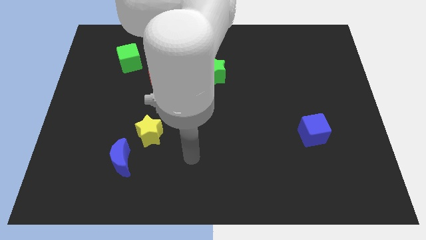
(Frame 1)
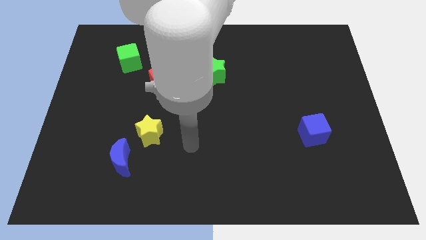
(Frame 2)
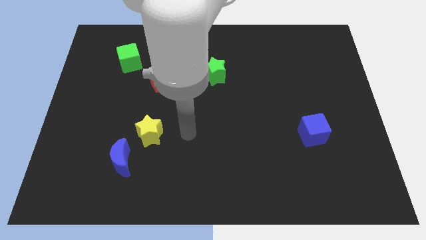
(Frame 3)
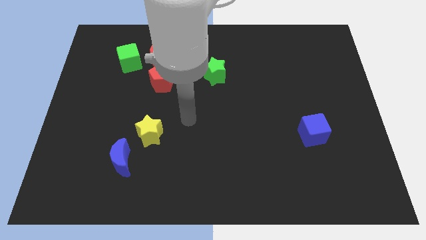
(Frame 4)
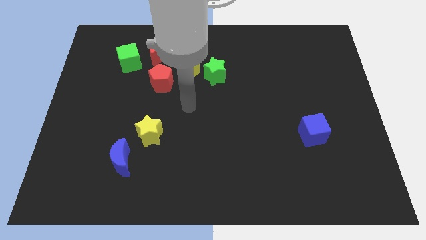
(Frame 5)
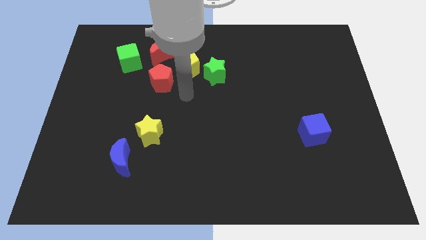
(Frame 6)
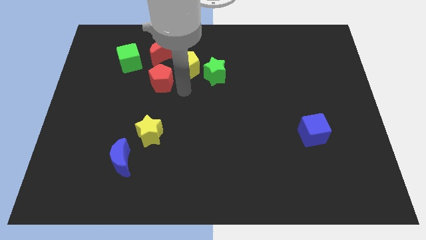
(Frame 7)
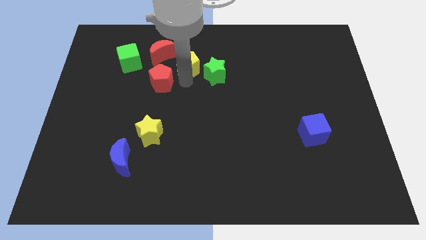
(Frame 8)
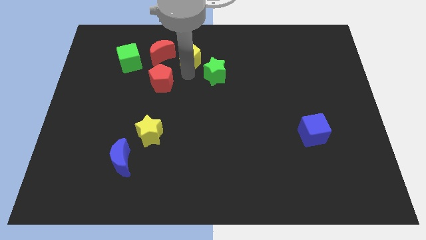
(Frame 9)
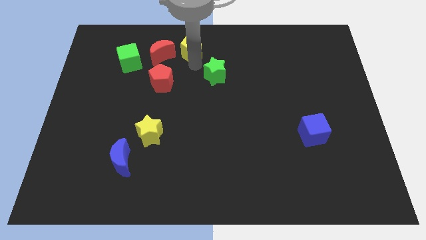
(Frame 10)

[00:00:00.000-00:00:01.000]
pull the green star apart from the yellow pentagon

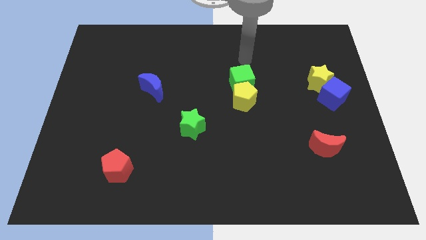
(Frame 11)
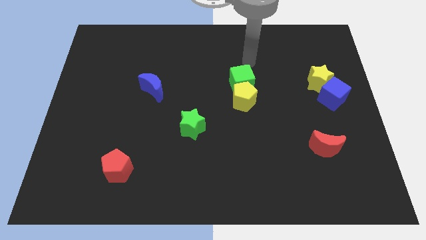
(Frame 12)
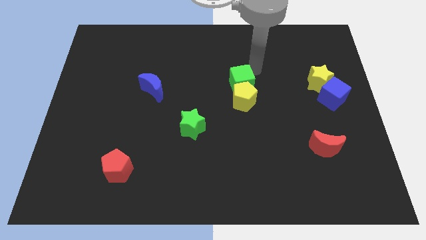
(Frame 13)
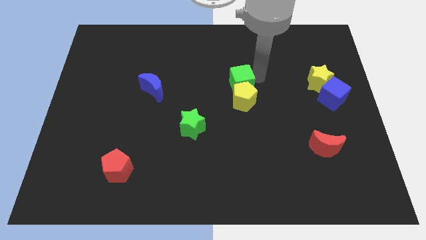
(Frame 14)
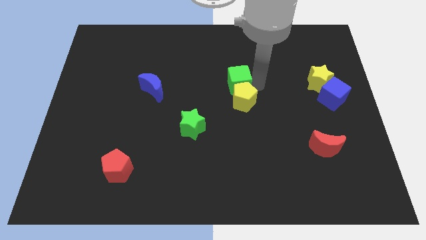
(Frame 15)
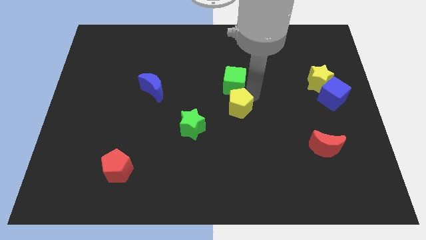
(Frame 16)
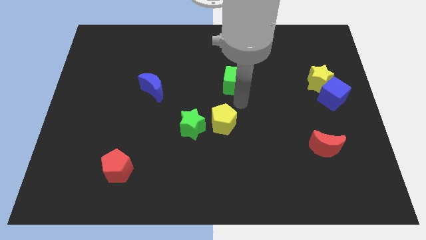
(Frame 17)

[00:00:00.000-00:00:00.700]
move the green cube away from the yellow pentagon

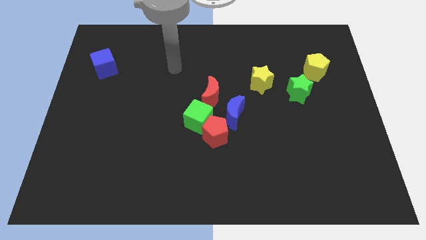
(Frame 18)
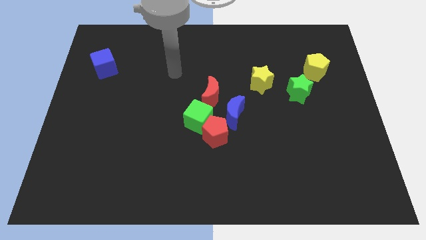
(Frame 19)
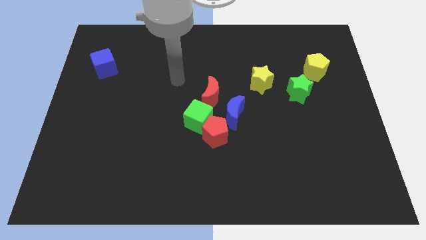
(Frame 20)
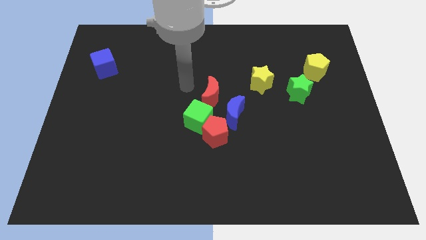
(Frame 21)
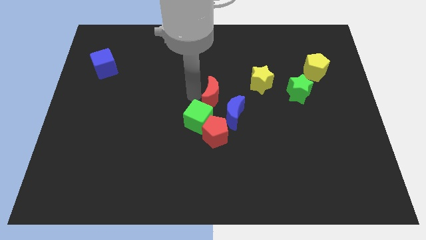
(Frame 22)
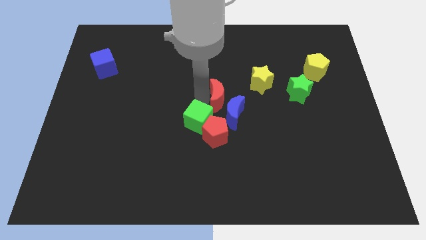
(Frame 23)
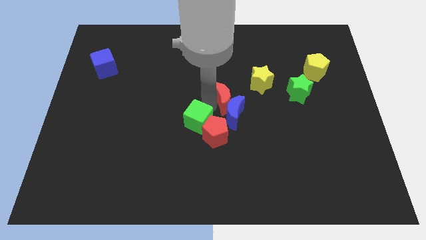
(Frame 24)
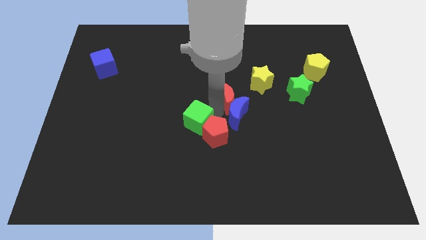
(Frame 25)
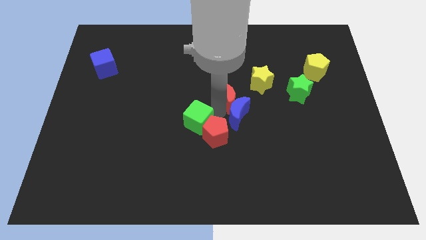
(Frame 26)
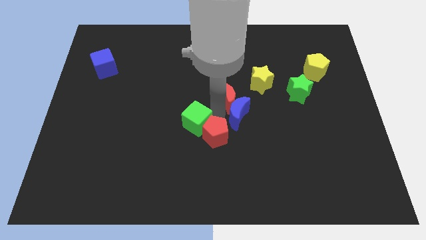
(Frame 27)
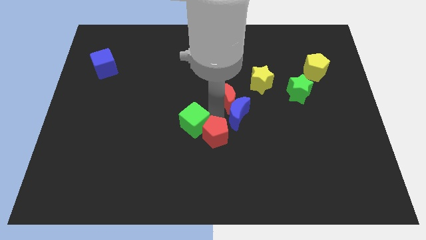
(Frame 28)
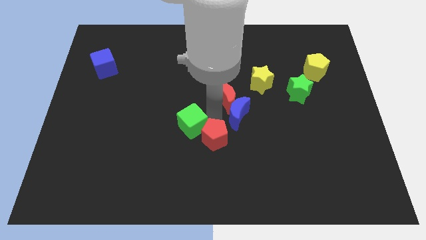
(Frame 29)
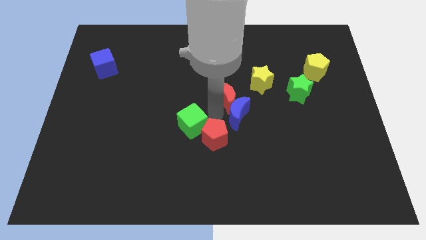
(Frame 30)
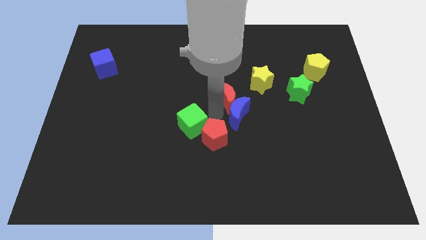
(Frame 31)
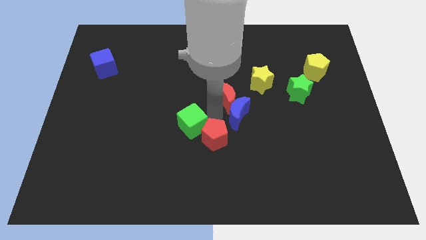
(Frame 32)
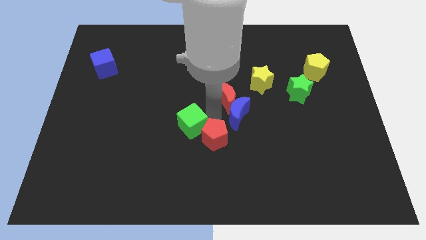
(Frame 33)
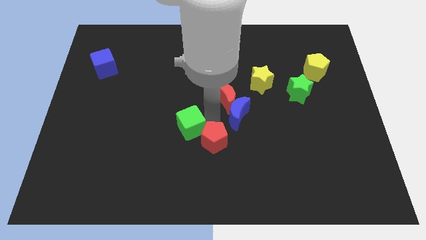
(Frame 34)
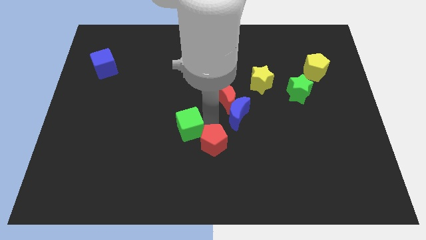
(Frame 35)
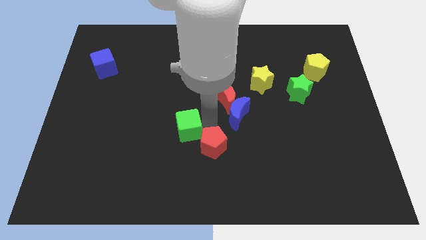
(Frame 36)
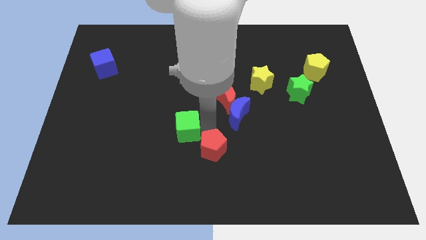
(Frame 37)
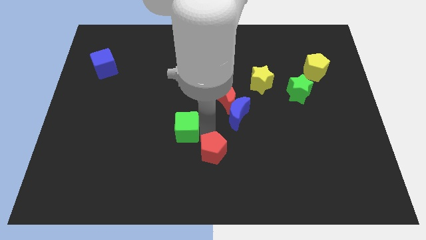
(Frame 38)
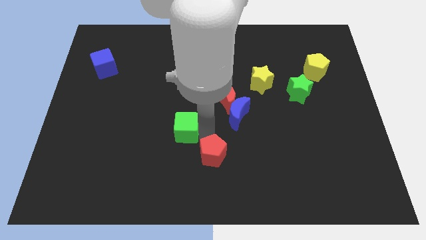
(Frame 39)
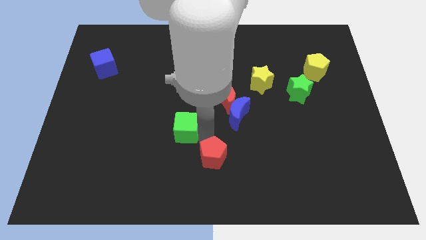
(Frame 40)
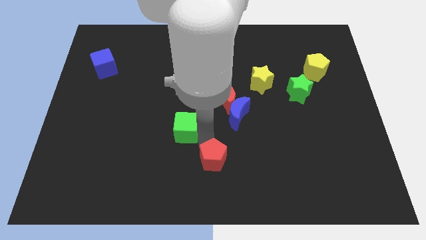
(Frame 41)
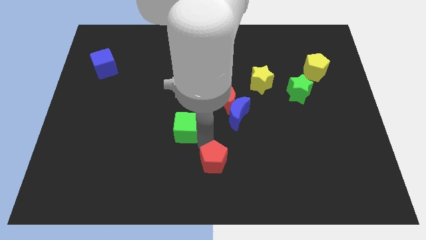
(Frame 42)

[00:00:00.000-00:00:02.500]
separate the red pentagon from the green cube and blue moon

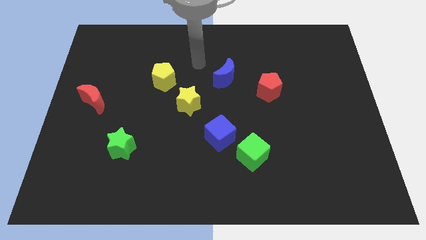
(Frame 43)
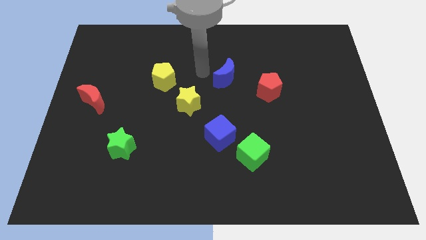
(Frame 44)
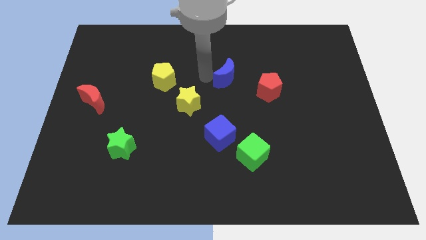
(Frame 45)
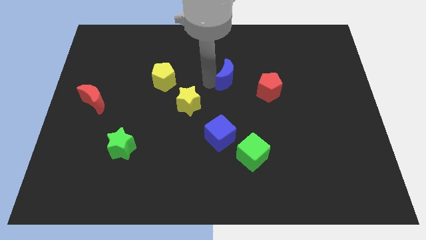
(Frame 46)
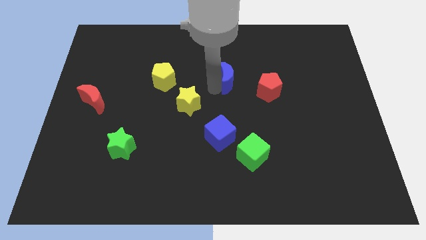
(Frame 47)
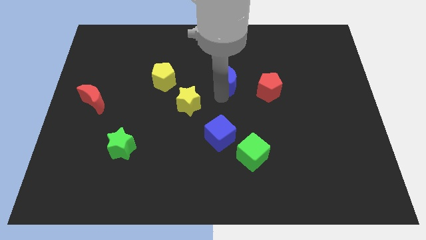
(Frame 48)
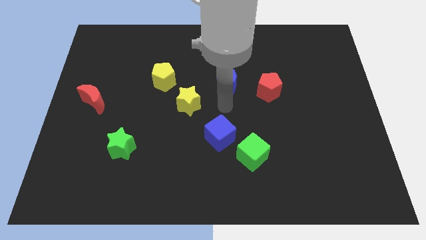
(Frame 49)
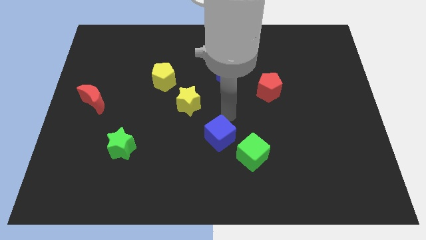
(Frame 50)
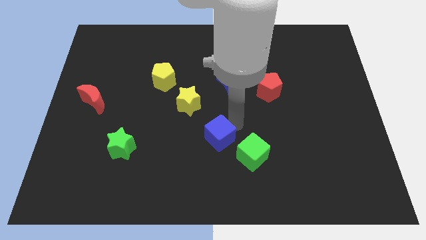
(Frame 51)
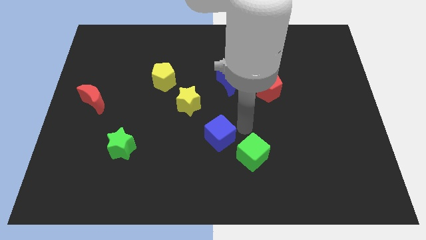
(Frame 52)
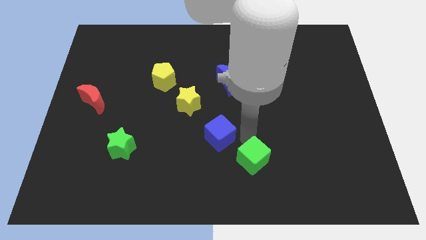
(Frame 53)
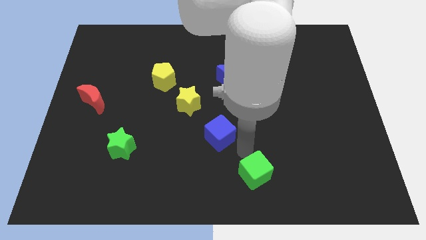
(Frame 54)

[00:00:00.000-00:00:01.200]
move the blue cube away from the green cube

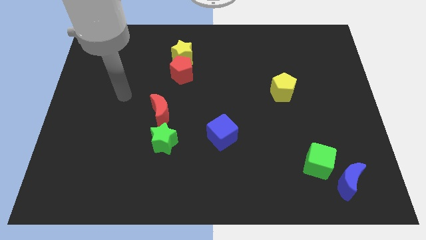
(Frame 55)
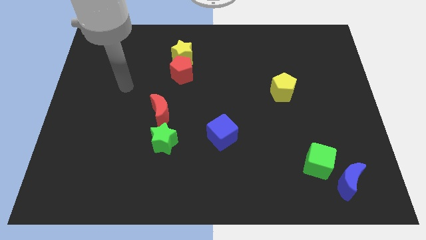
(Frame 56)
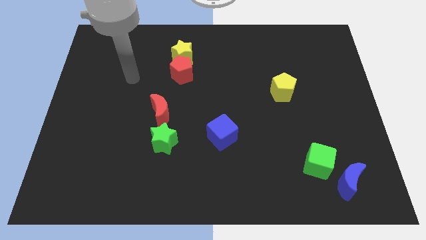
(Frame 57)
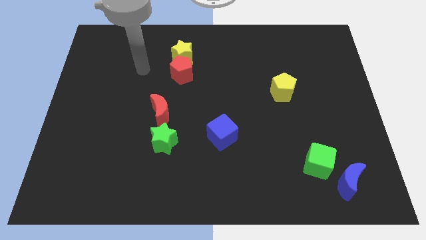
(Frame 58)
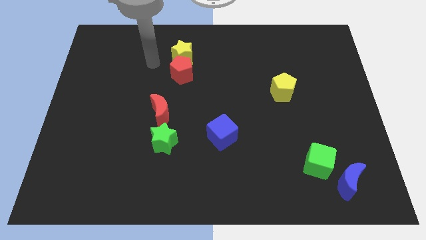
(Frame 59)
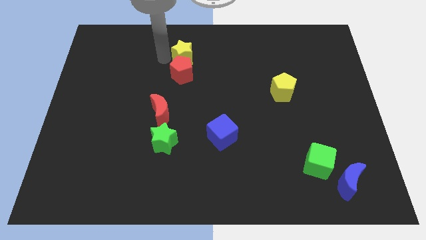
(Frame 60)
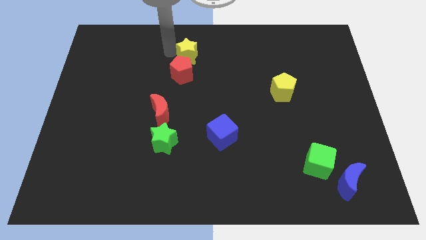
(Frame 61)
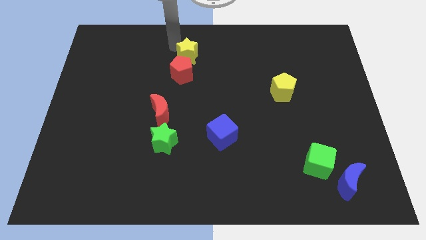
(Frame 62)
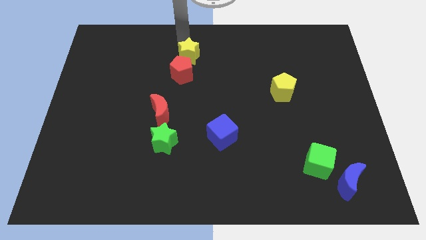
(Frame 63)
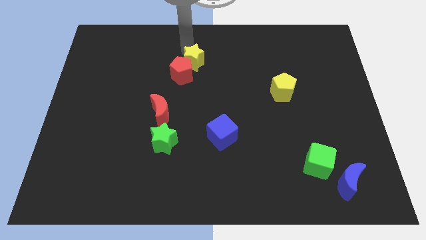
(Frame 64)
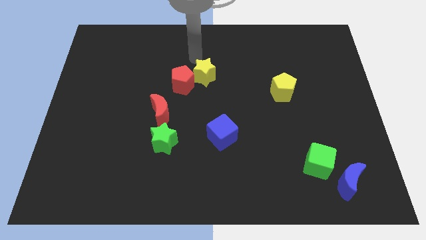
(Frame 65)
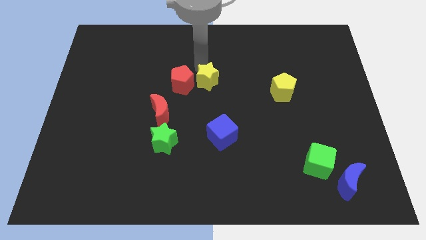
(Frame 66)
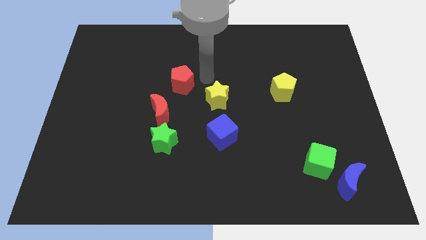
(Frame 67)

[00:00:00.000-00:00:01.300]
separate the red pentagon from the yellow star

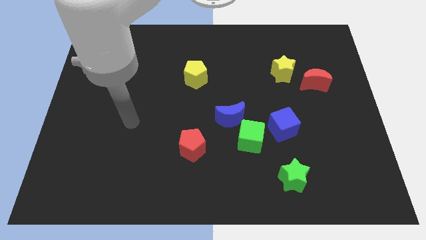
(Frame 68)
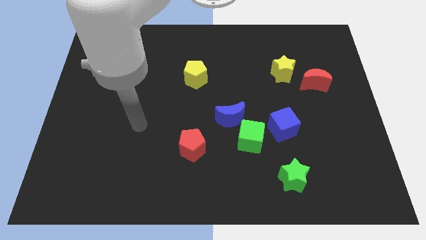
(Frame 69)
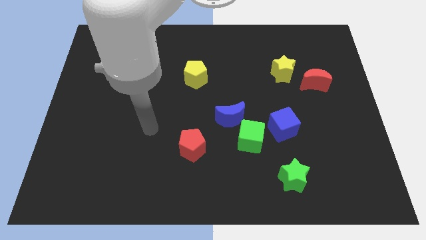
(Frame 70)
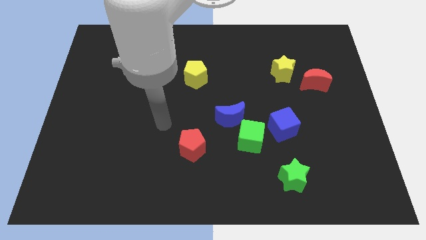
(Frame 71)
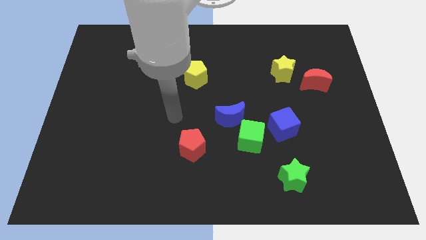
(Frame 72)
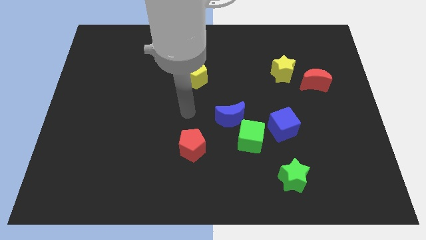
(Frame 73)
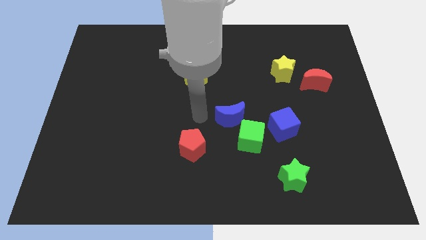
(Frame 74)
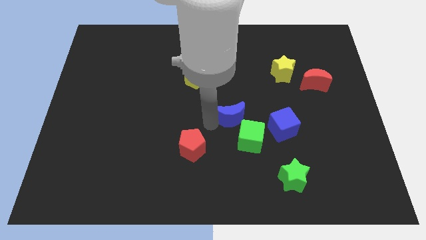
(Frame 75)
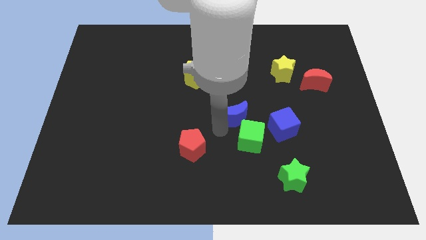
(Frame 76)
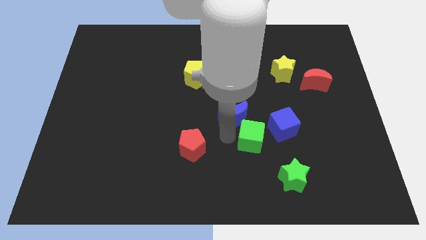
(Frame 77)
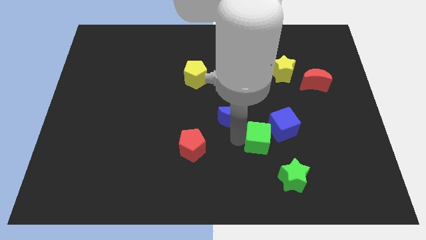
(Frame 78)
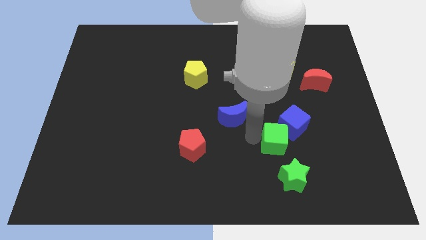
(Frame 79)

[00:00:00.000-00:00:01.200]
pull the blue moon apart from the green cube

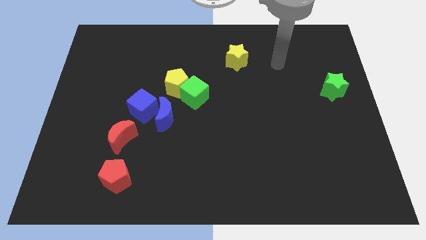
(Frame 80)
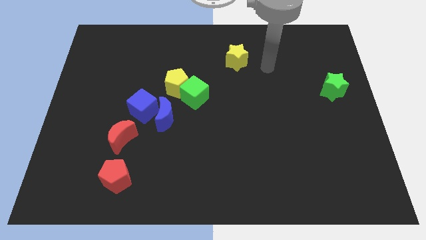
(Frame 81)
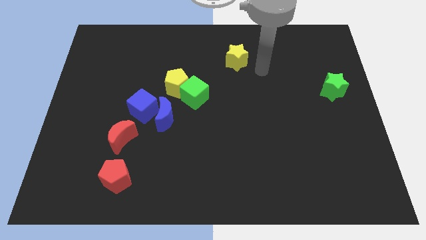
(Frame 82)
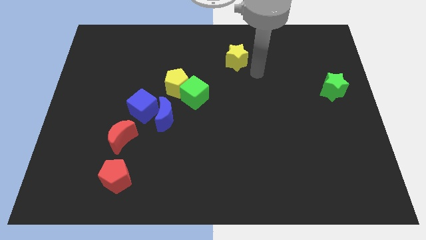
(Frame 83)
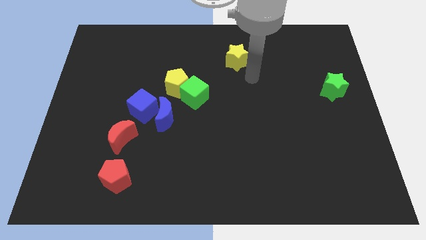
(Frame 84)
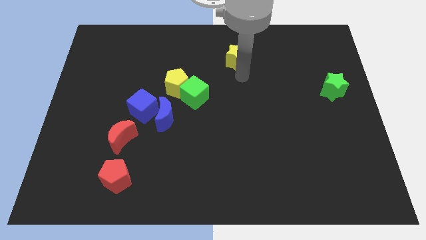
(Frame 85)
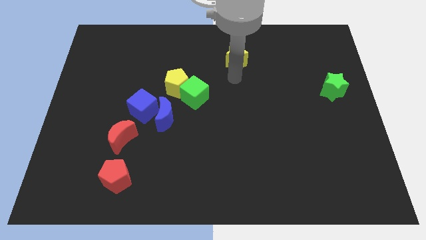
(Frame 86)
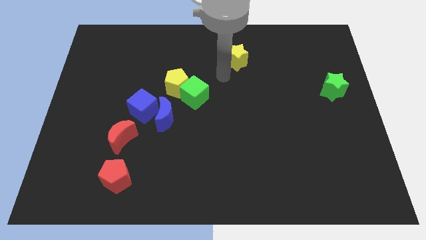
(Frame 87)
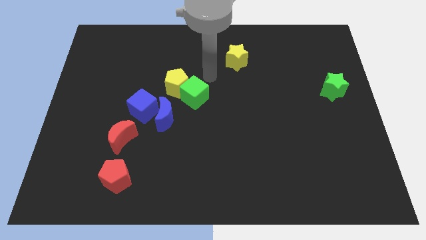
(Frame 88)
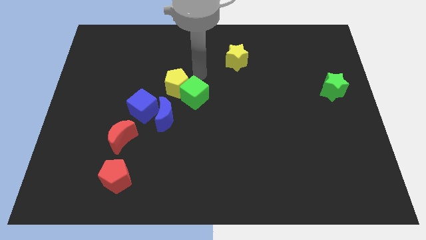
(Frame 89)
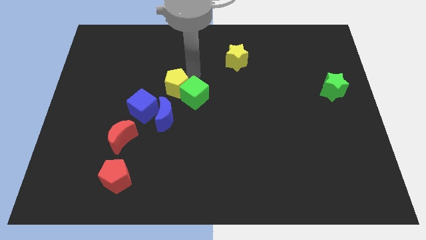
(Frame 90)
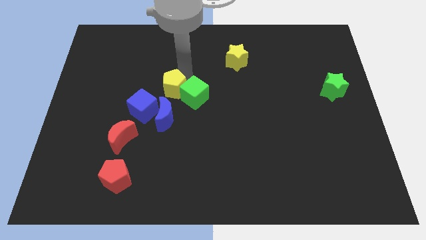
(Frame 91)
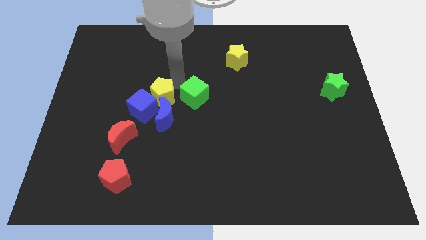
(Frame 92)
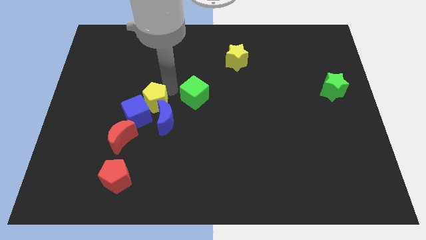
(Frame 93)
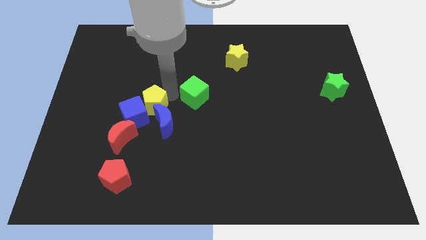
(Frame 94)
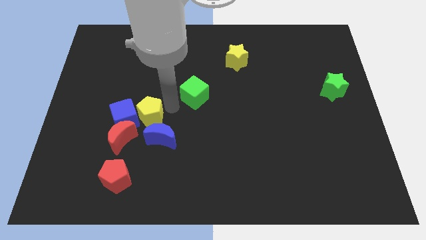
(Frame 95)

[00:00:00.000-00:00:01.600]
separate the green cube from the yellow pentagon and blue moon
